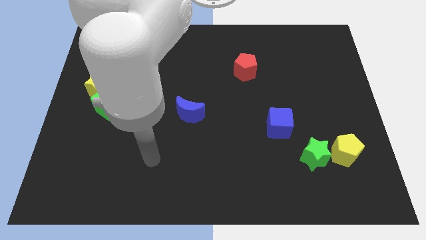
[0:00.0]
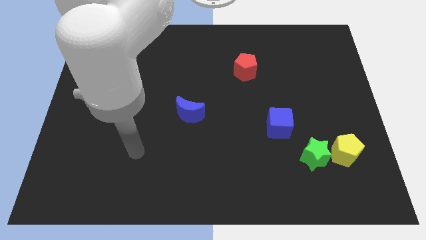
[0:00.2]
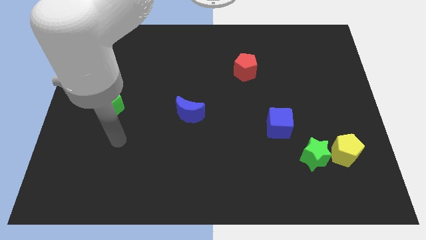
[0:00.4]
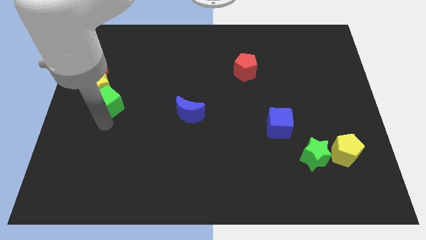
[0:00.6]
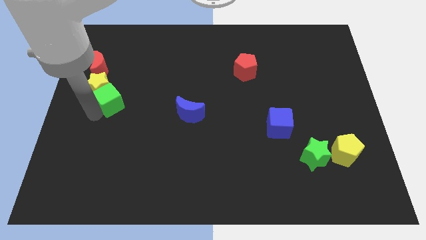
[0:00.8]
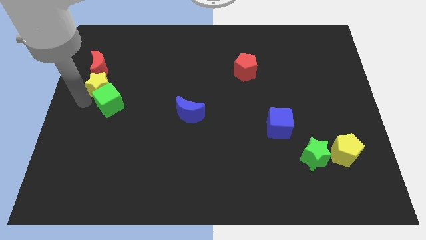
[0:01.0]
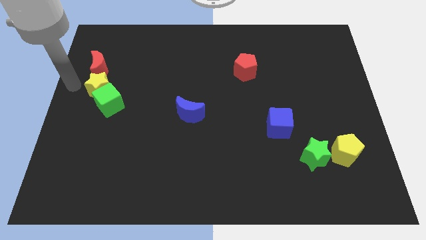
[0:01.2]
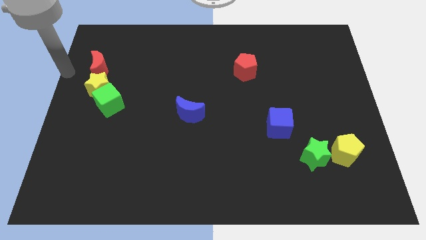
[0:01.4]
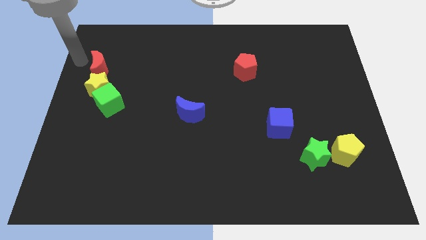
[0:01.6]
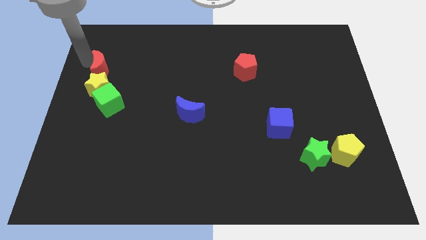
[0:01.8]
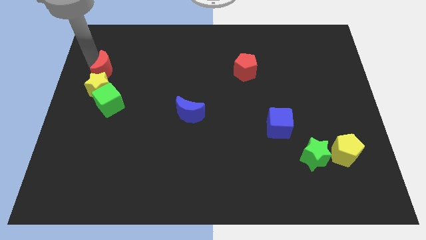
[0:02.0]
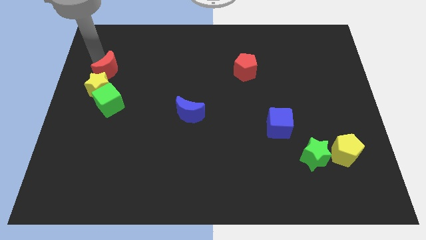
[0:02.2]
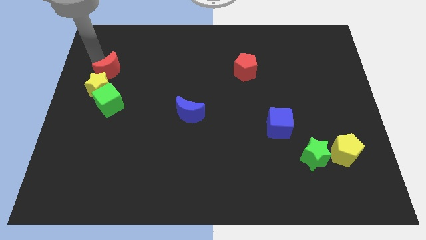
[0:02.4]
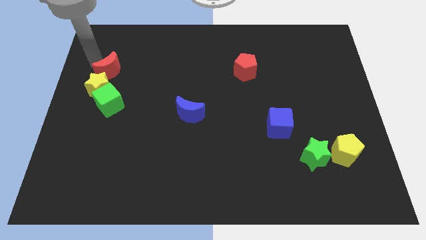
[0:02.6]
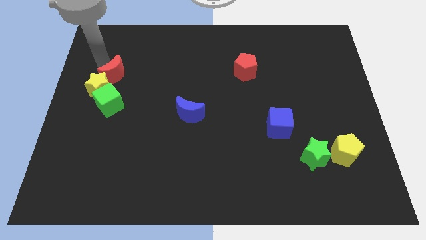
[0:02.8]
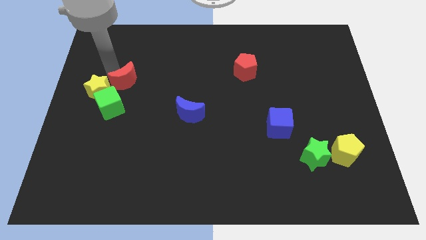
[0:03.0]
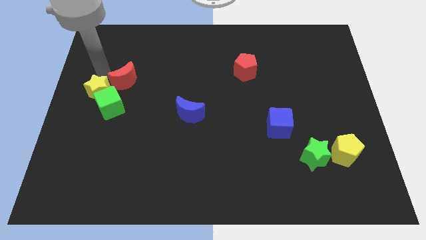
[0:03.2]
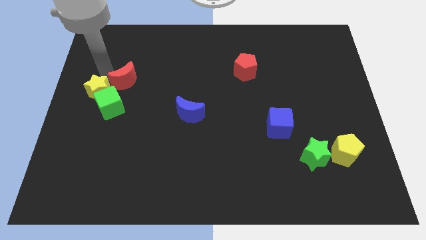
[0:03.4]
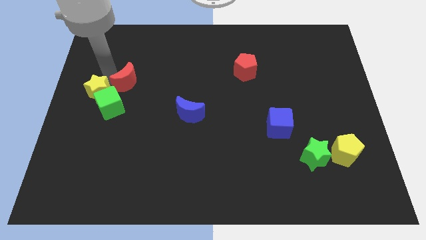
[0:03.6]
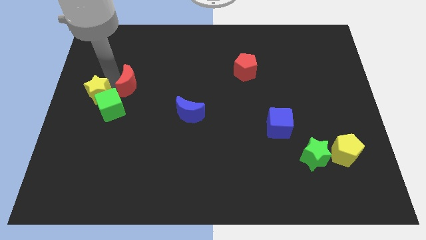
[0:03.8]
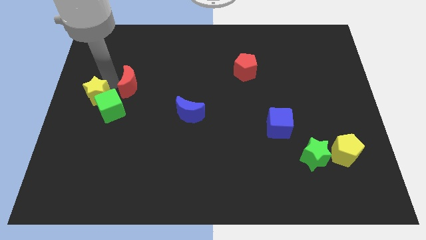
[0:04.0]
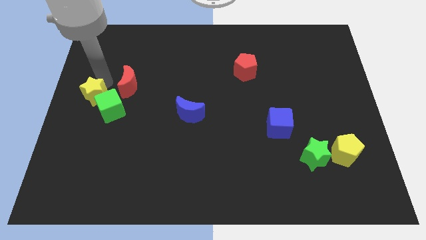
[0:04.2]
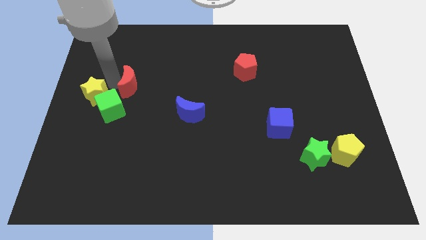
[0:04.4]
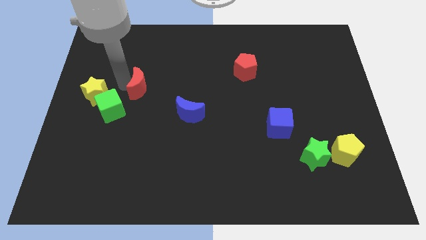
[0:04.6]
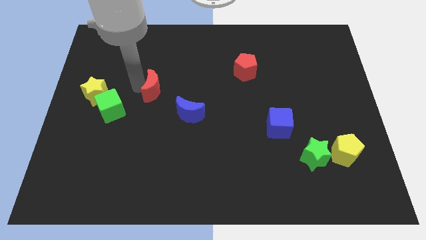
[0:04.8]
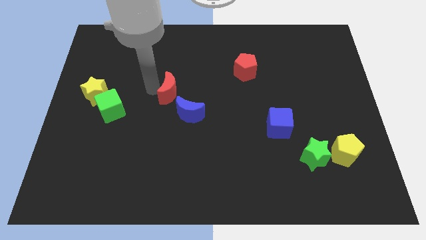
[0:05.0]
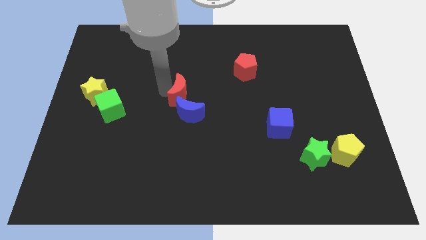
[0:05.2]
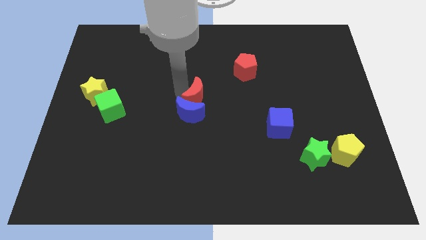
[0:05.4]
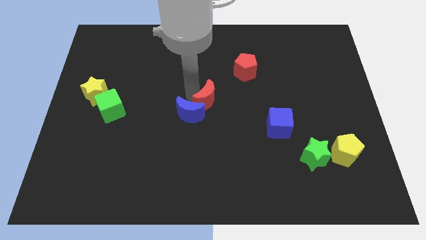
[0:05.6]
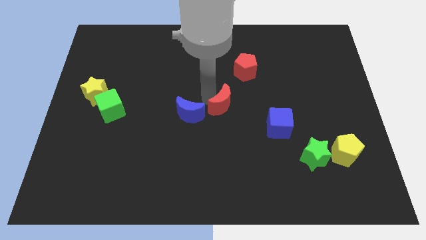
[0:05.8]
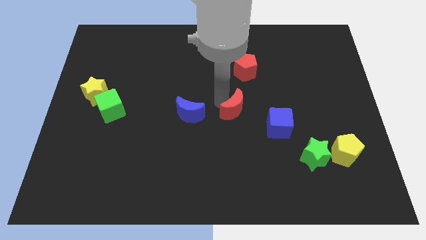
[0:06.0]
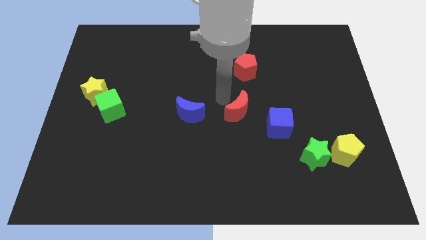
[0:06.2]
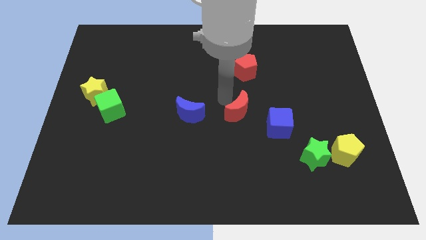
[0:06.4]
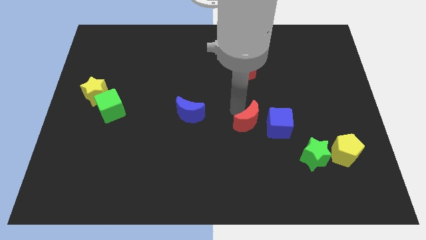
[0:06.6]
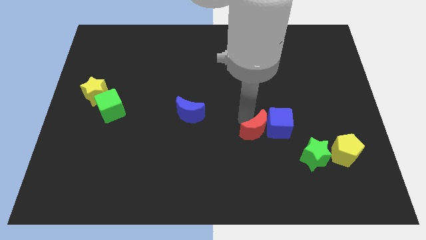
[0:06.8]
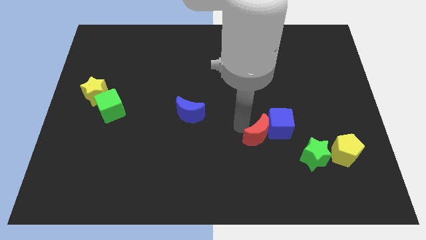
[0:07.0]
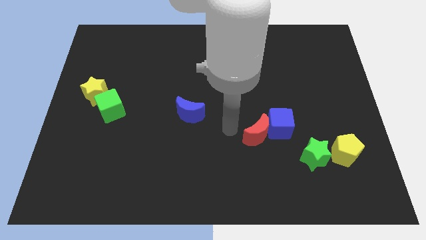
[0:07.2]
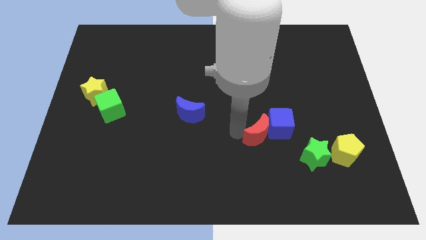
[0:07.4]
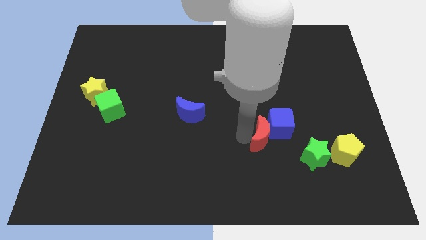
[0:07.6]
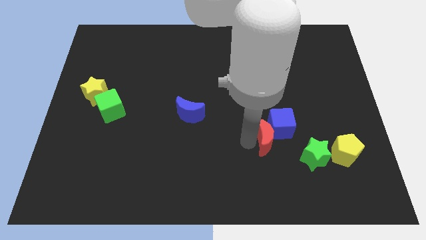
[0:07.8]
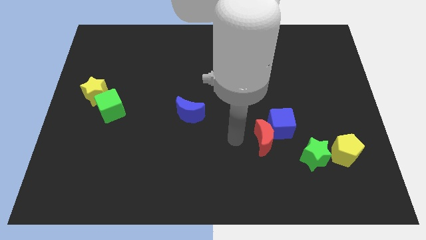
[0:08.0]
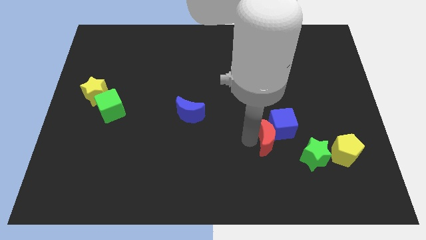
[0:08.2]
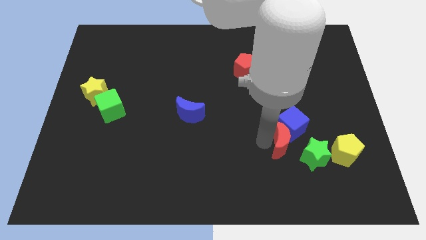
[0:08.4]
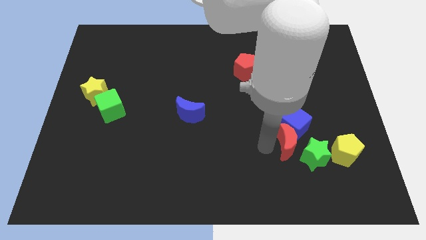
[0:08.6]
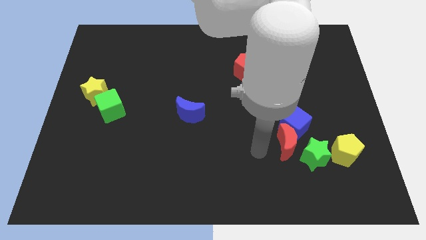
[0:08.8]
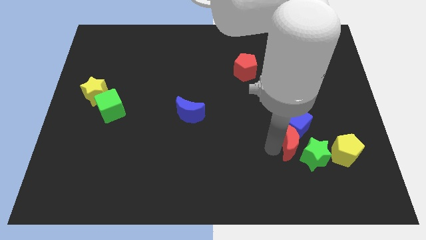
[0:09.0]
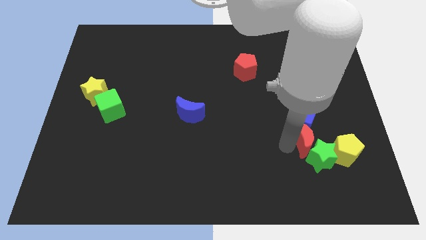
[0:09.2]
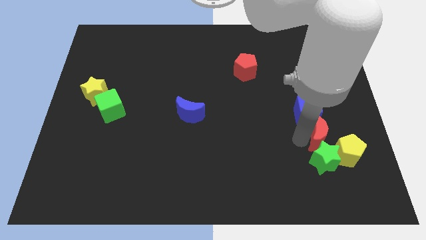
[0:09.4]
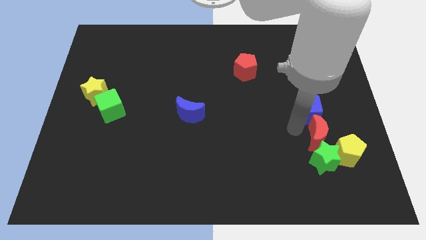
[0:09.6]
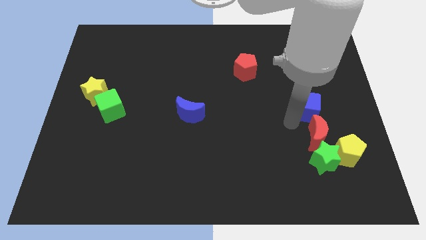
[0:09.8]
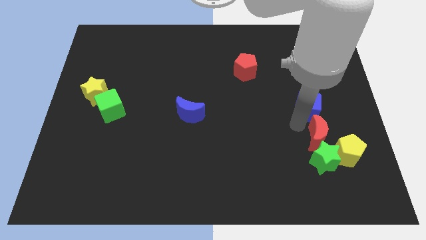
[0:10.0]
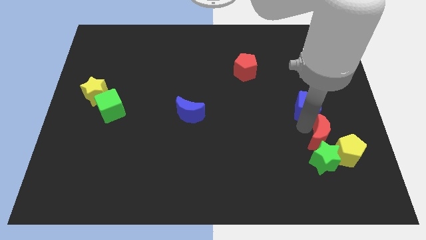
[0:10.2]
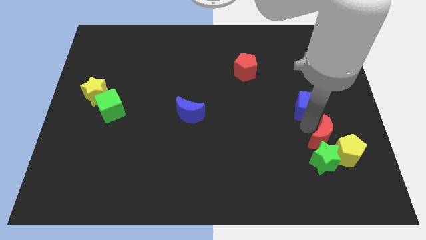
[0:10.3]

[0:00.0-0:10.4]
slide the red moon towards the yellow pentagon

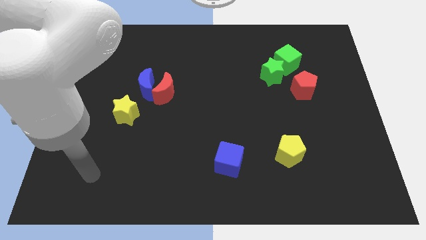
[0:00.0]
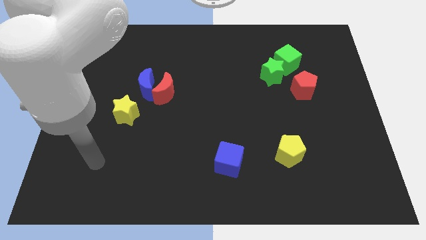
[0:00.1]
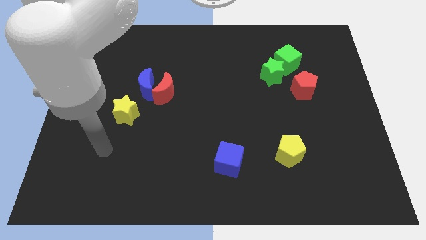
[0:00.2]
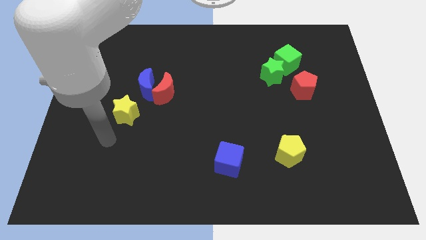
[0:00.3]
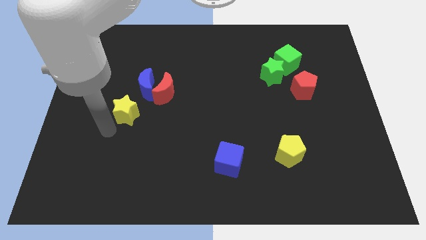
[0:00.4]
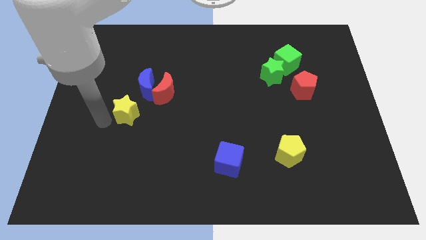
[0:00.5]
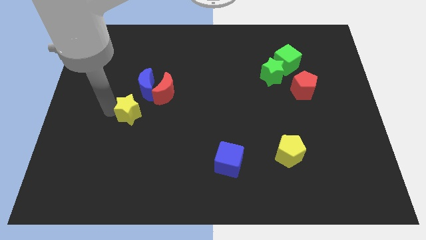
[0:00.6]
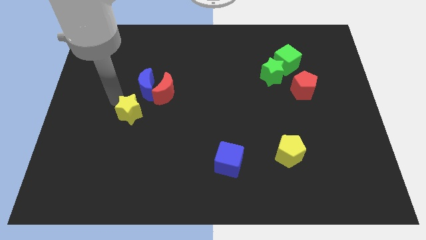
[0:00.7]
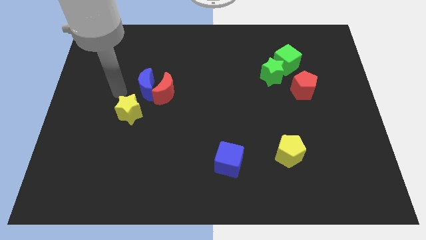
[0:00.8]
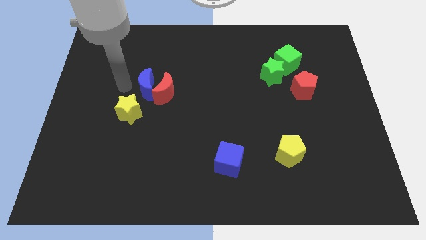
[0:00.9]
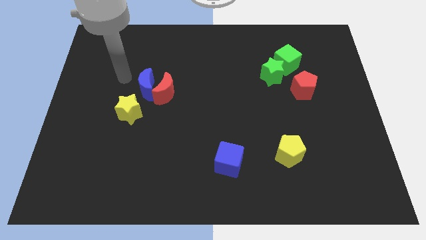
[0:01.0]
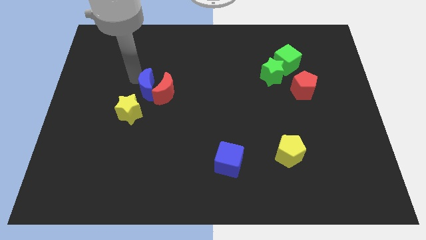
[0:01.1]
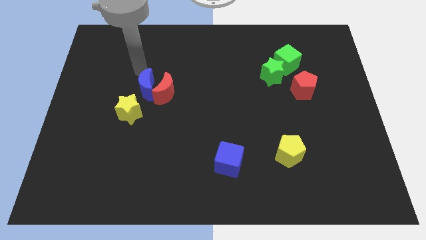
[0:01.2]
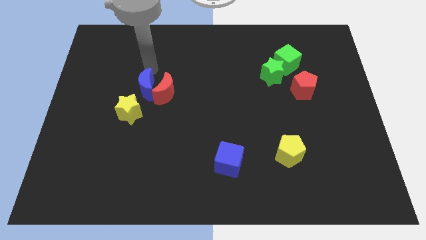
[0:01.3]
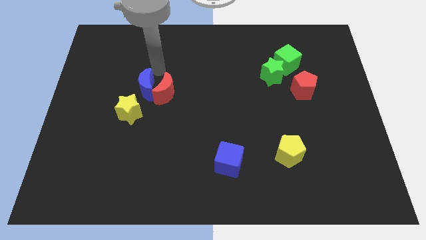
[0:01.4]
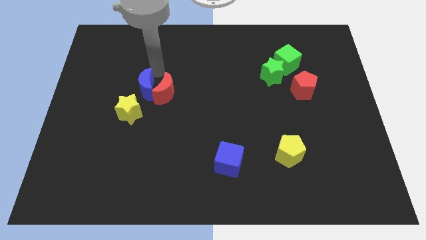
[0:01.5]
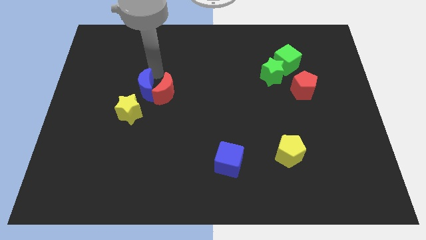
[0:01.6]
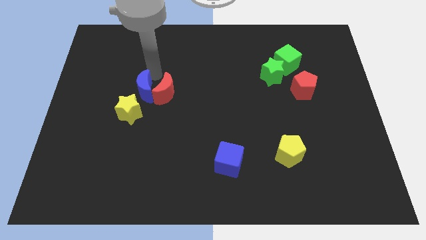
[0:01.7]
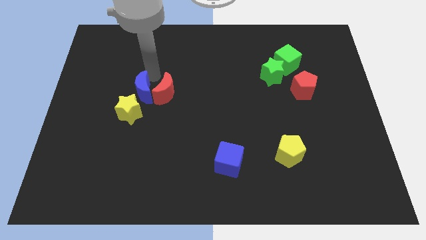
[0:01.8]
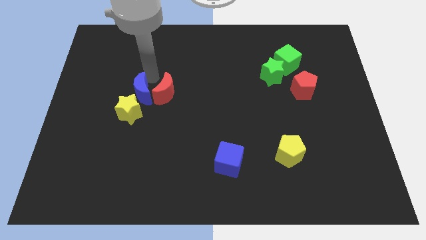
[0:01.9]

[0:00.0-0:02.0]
move the blue moon close to the yellow star
